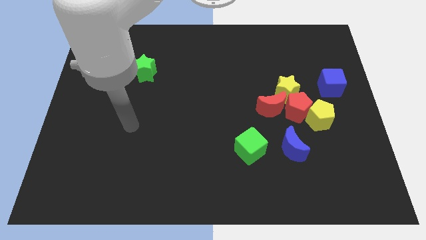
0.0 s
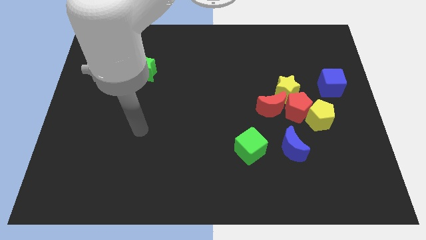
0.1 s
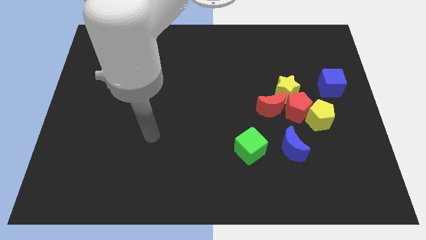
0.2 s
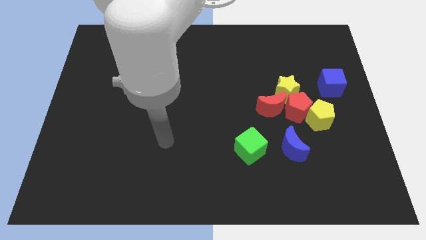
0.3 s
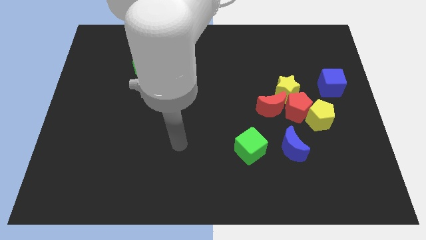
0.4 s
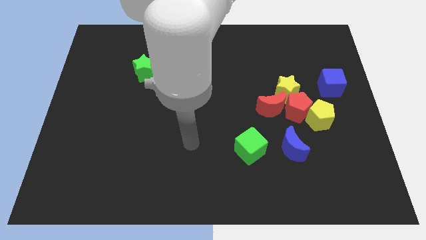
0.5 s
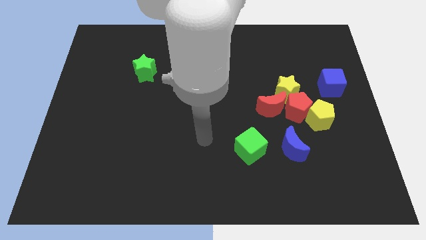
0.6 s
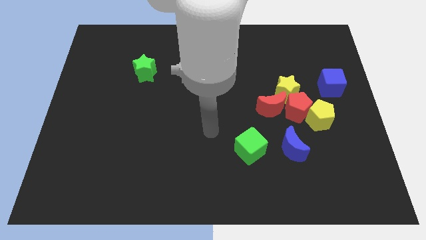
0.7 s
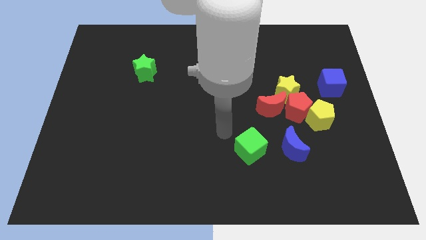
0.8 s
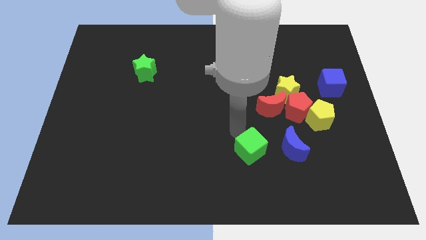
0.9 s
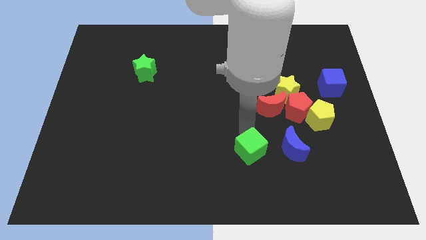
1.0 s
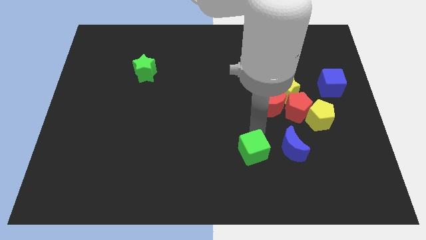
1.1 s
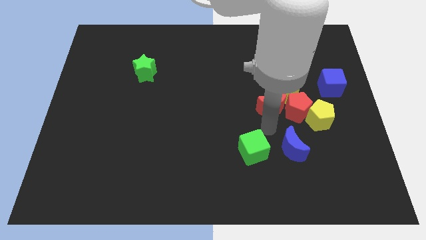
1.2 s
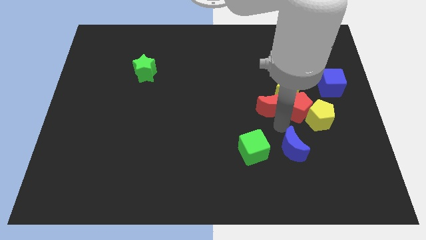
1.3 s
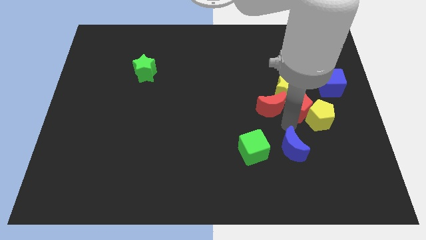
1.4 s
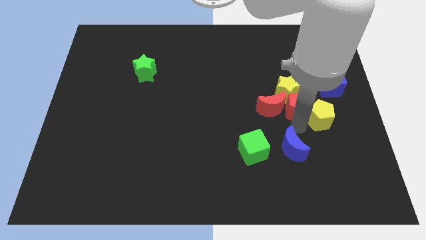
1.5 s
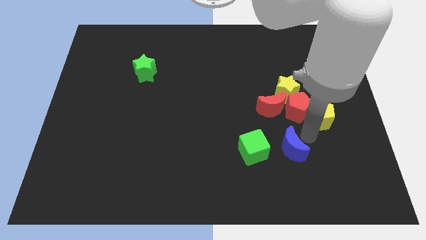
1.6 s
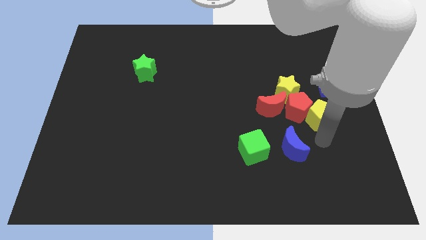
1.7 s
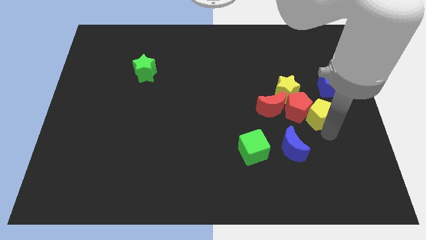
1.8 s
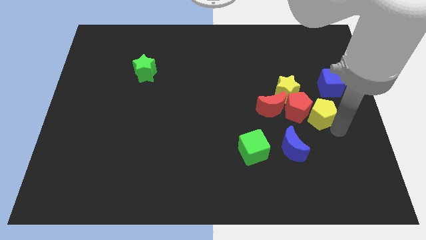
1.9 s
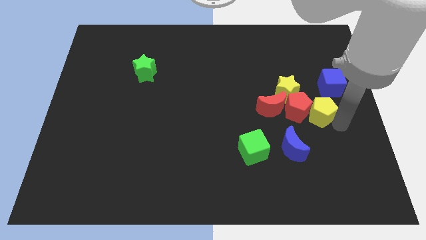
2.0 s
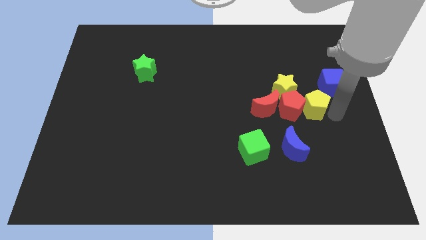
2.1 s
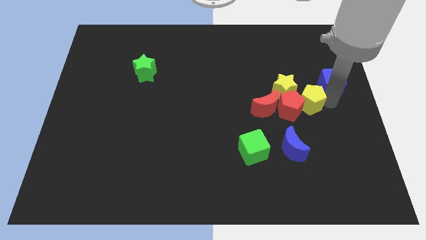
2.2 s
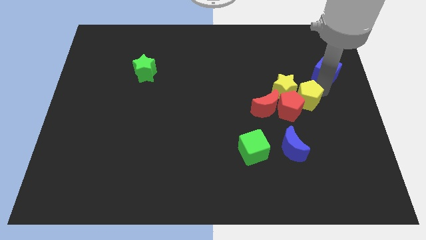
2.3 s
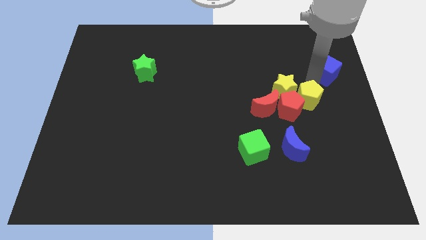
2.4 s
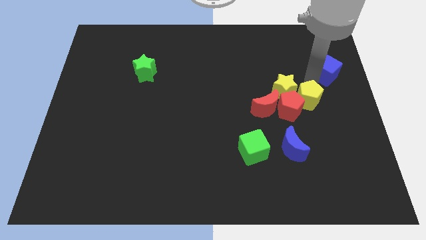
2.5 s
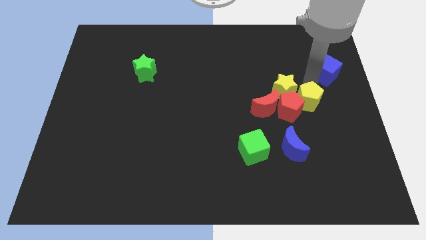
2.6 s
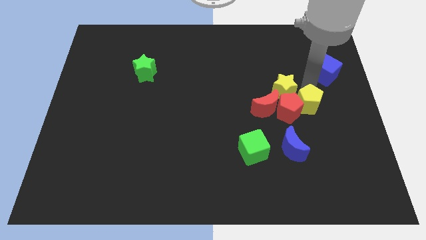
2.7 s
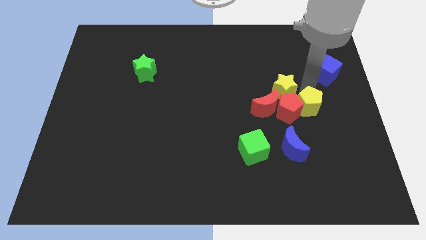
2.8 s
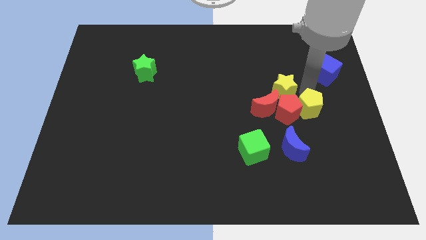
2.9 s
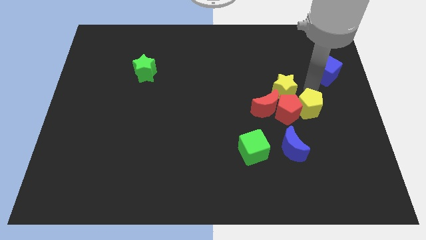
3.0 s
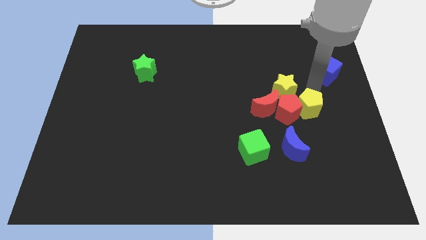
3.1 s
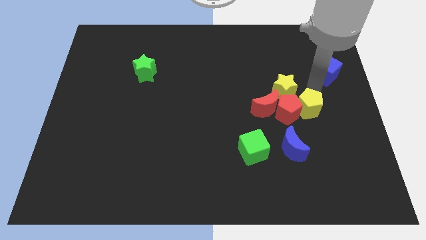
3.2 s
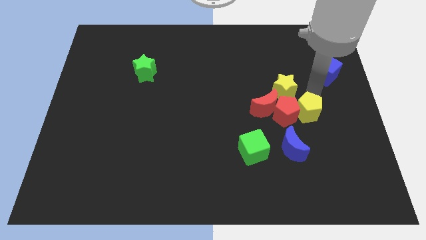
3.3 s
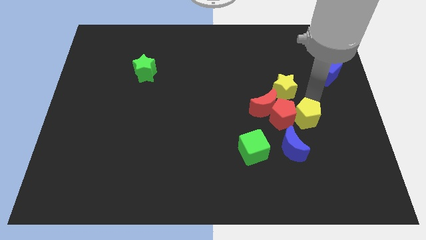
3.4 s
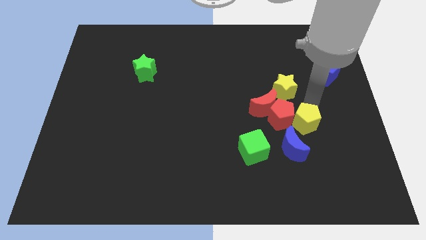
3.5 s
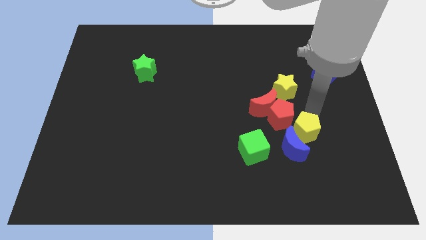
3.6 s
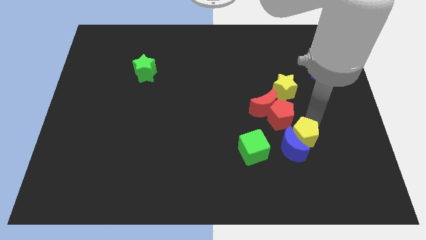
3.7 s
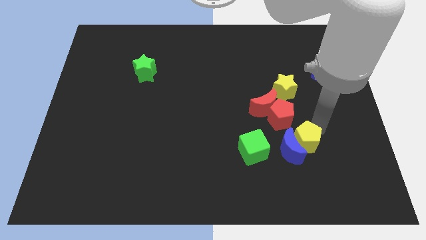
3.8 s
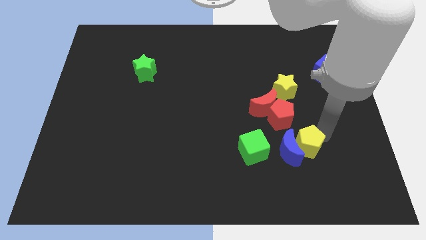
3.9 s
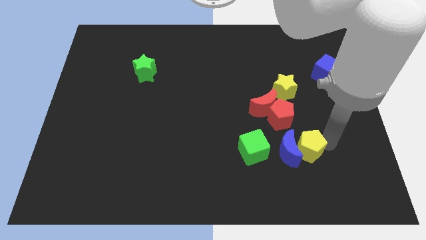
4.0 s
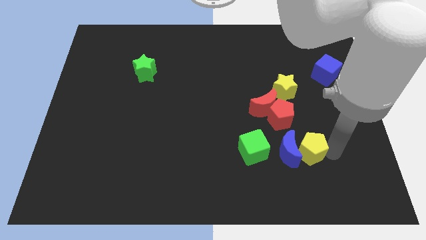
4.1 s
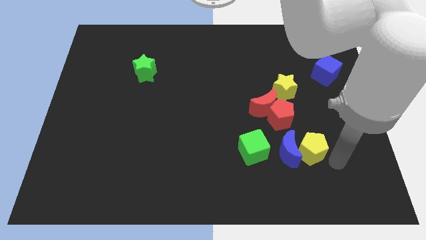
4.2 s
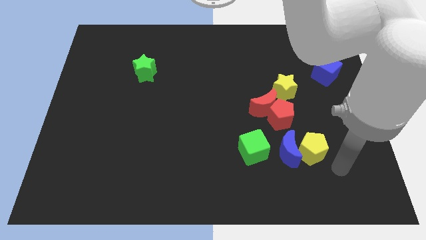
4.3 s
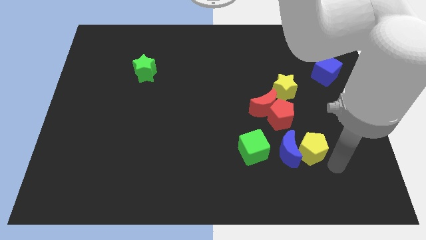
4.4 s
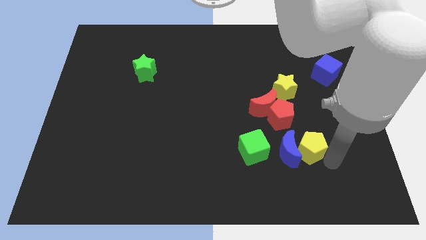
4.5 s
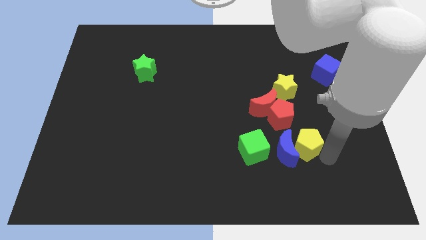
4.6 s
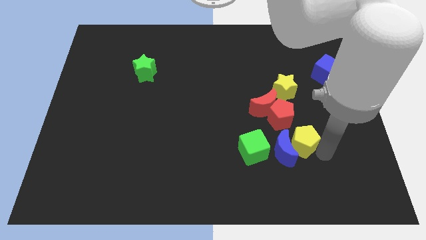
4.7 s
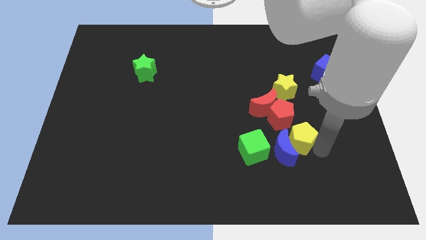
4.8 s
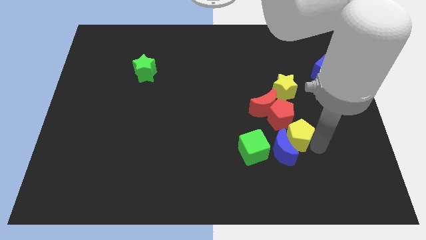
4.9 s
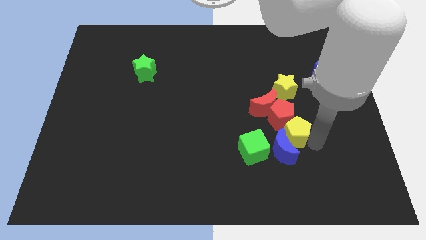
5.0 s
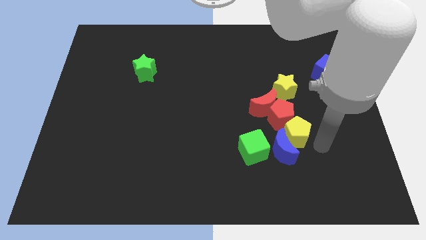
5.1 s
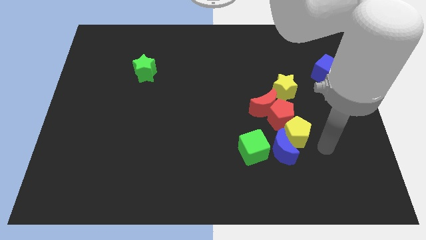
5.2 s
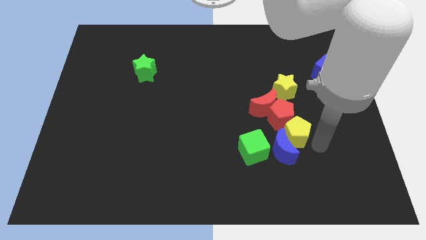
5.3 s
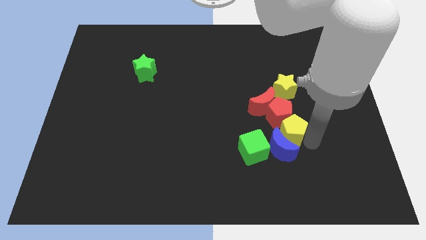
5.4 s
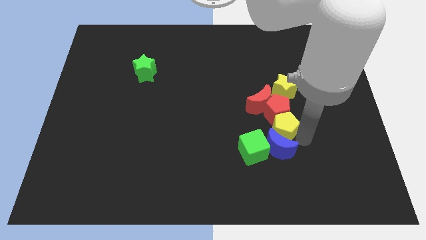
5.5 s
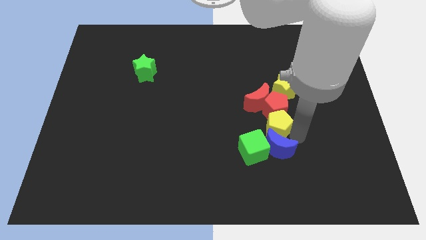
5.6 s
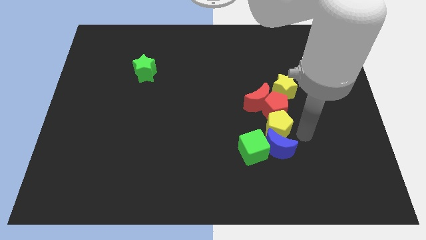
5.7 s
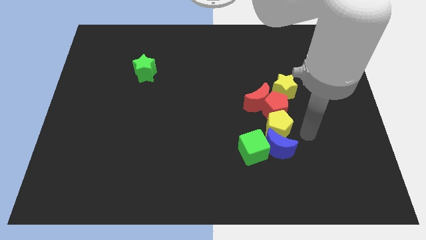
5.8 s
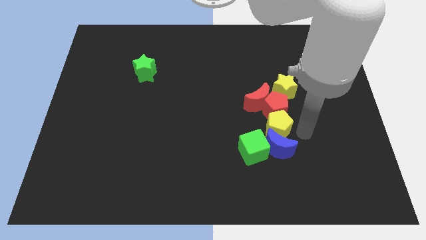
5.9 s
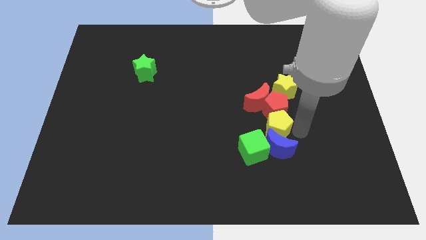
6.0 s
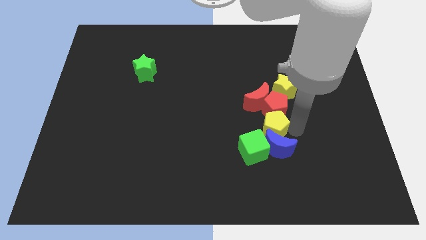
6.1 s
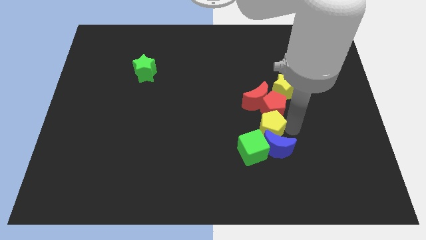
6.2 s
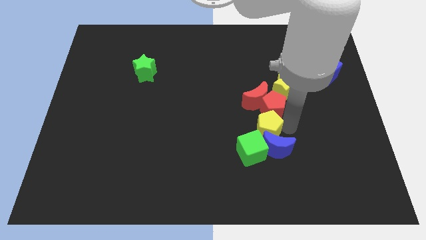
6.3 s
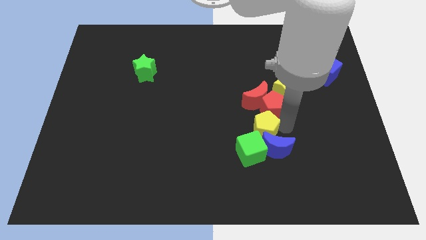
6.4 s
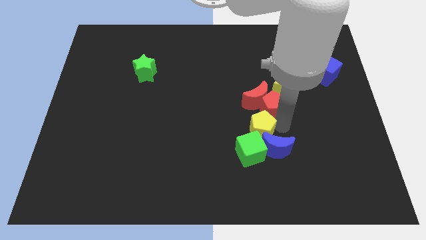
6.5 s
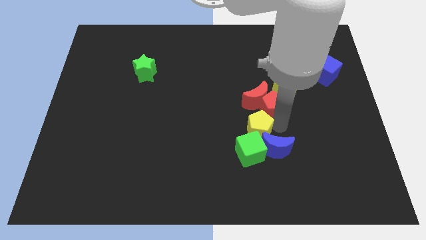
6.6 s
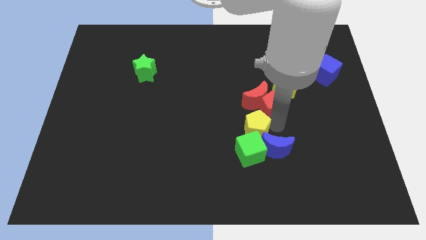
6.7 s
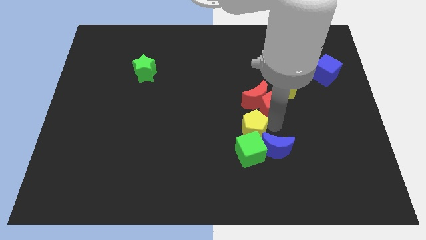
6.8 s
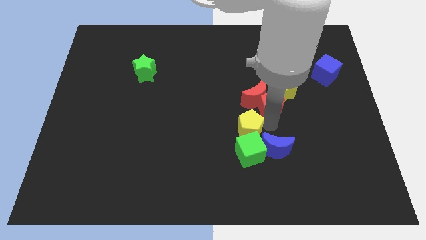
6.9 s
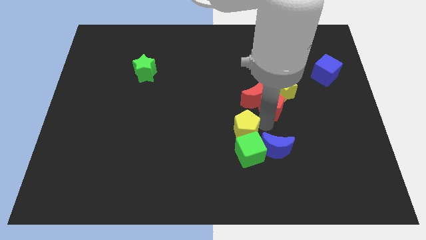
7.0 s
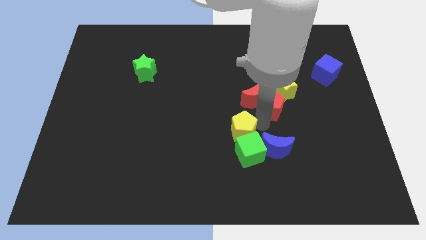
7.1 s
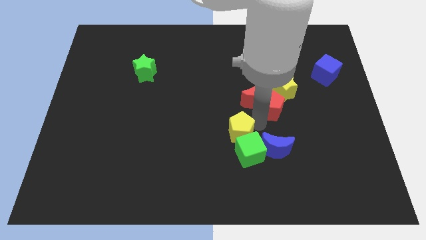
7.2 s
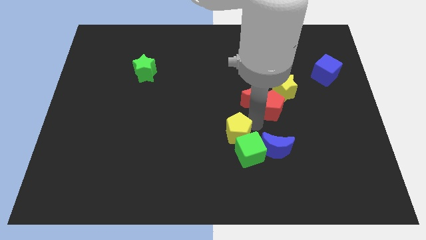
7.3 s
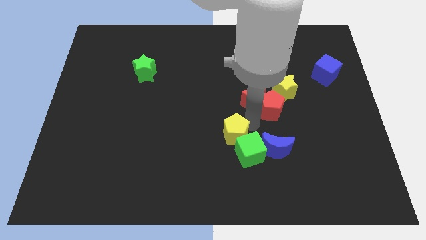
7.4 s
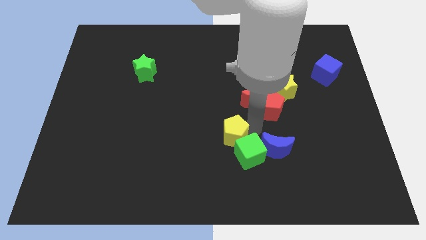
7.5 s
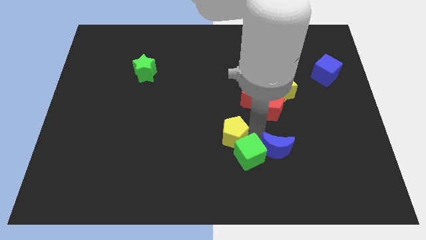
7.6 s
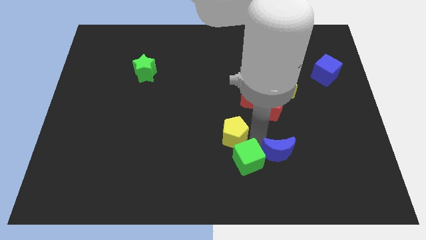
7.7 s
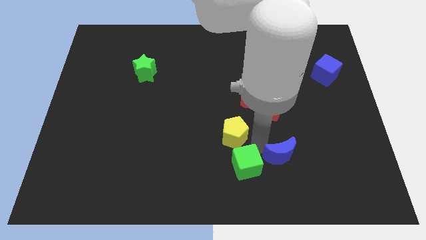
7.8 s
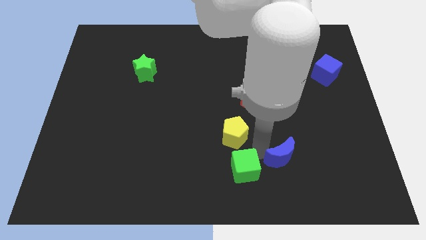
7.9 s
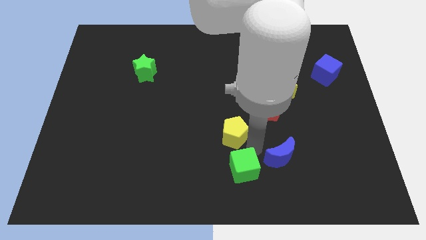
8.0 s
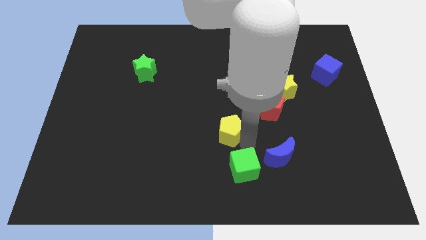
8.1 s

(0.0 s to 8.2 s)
move the yellow pentagon to the left

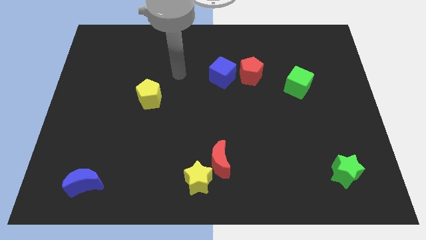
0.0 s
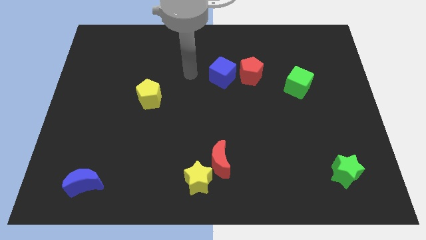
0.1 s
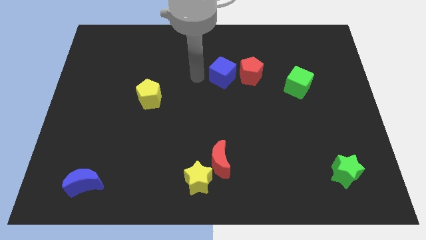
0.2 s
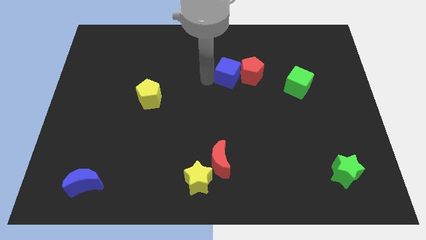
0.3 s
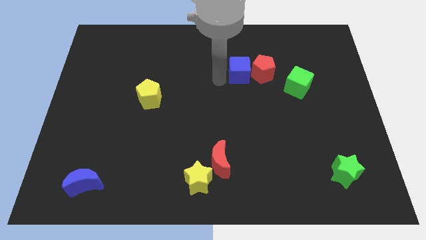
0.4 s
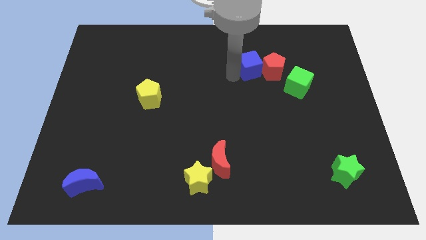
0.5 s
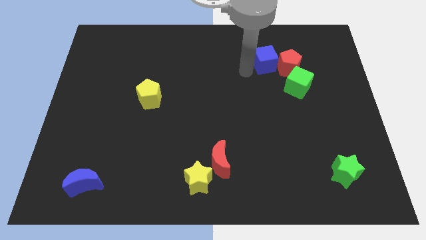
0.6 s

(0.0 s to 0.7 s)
move the red pentagon to the right a little bit
